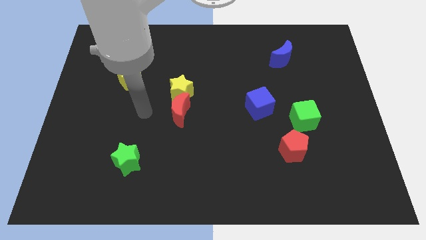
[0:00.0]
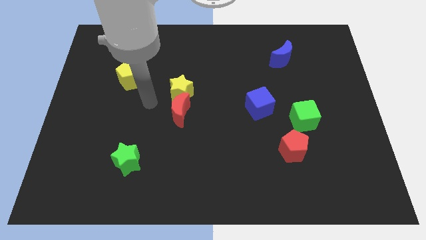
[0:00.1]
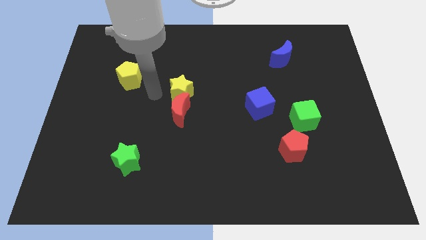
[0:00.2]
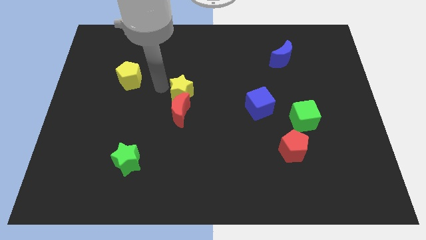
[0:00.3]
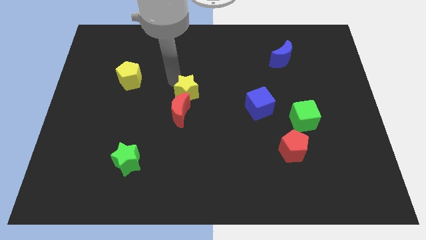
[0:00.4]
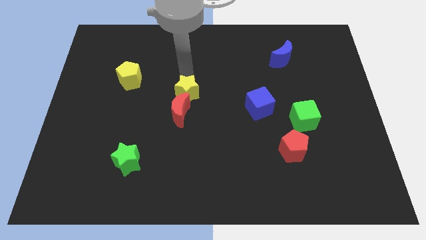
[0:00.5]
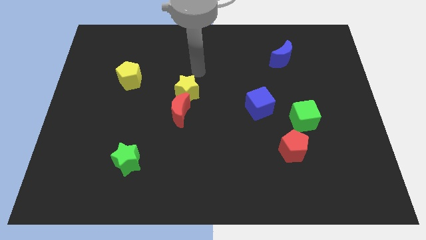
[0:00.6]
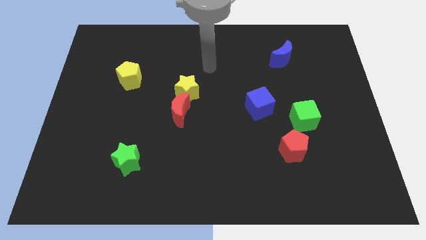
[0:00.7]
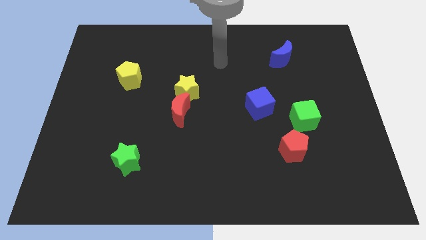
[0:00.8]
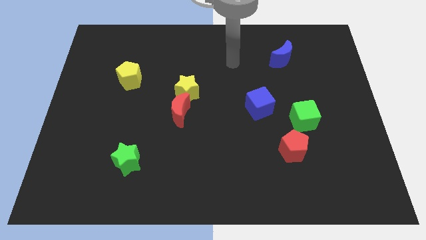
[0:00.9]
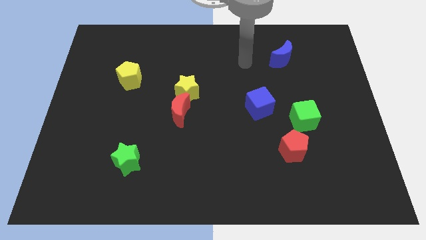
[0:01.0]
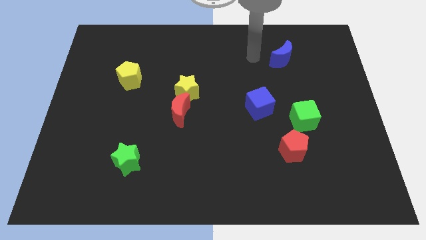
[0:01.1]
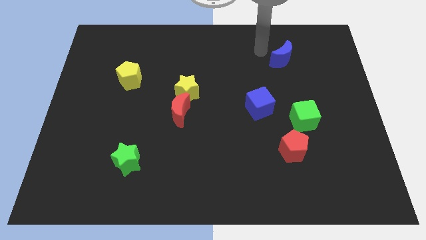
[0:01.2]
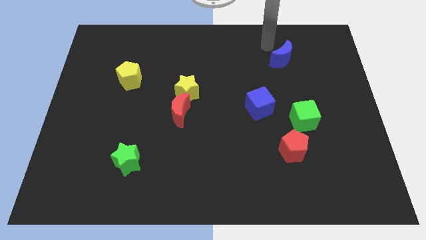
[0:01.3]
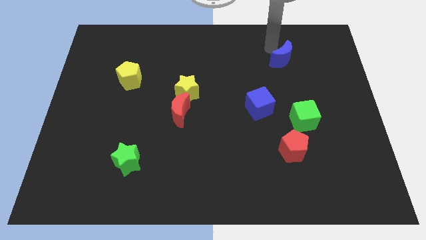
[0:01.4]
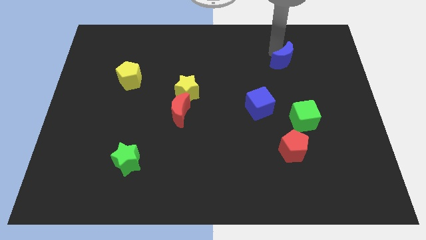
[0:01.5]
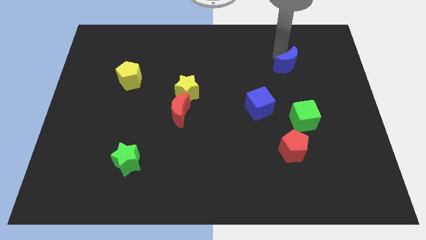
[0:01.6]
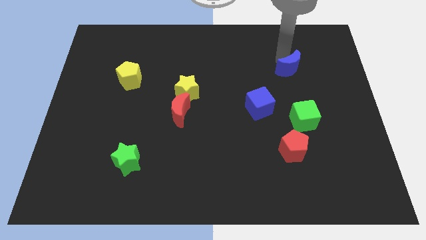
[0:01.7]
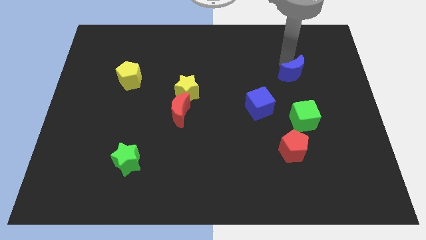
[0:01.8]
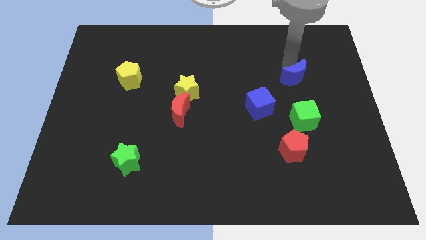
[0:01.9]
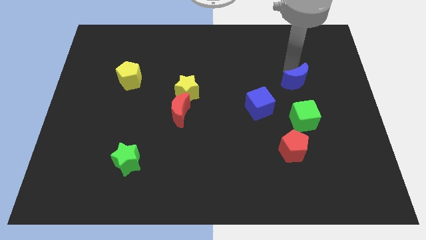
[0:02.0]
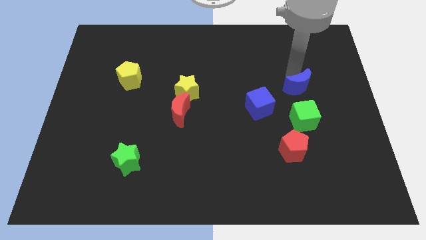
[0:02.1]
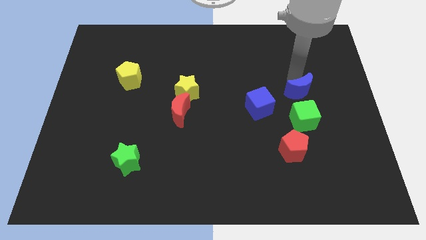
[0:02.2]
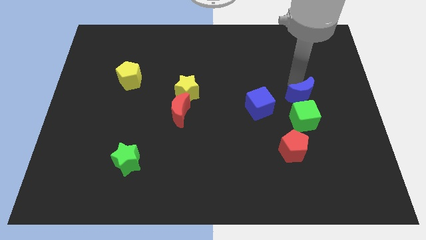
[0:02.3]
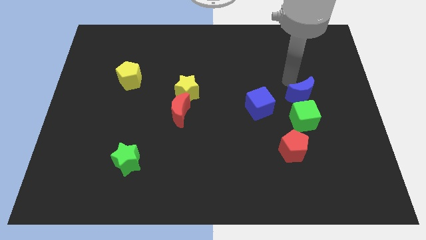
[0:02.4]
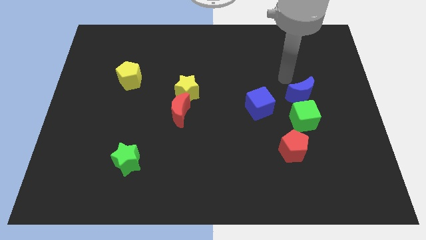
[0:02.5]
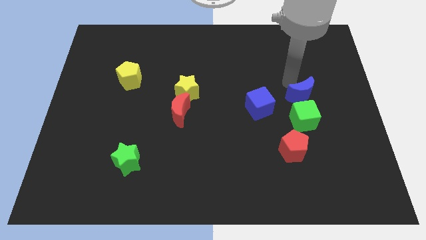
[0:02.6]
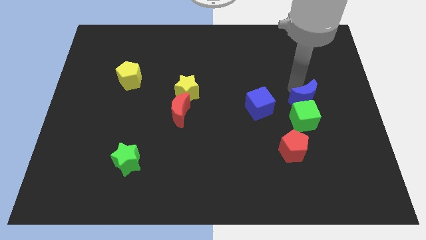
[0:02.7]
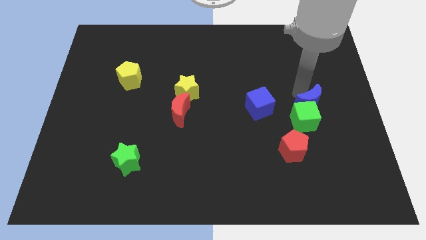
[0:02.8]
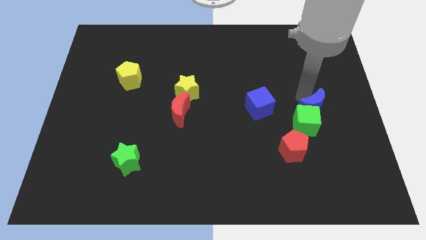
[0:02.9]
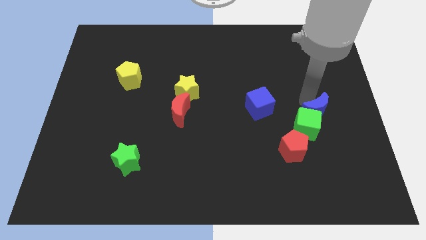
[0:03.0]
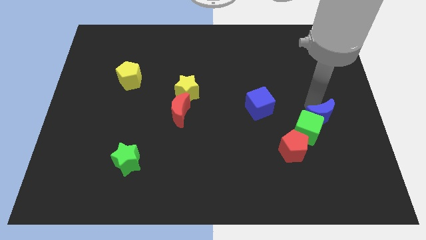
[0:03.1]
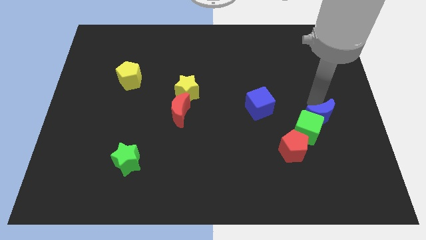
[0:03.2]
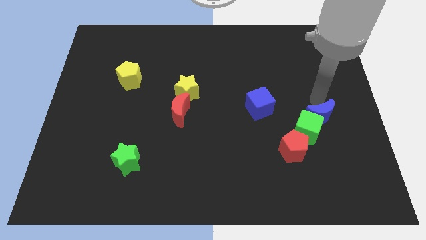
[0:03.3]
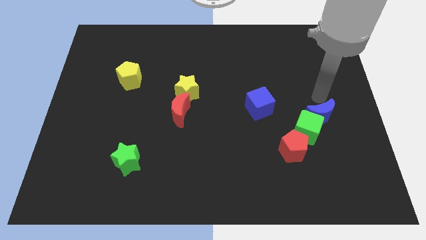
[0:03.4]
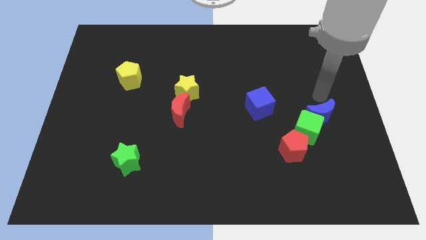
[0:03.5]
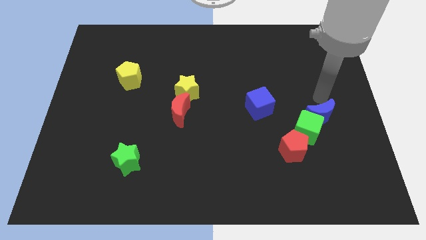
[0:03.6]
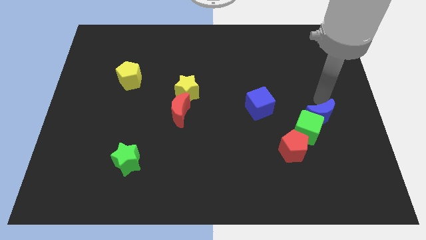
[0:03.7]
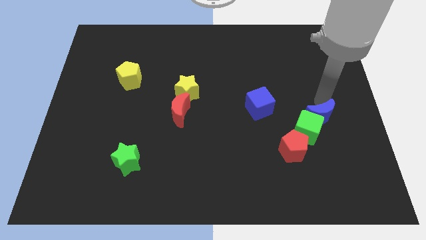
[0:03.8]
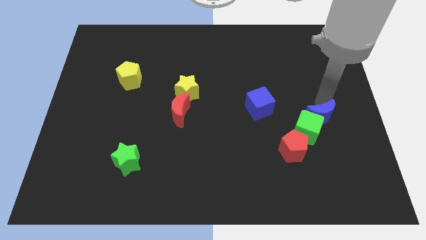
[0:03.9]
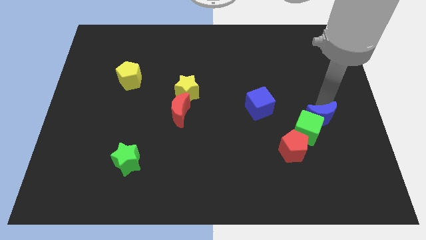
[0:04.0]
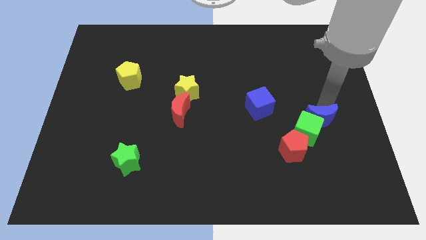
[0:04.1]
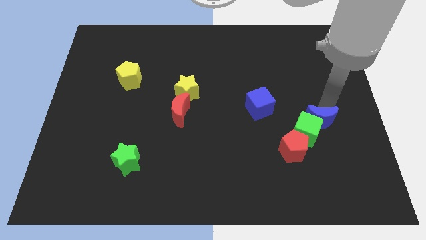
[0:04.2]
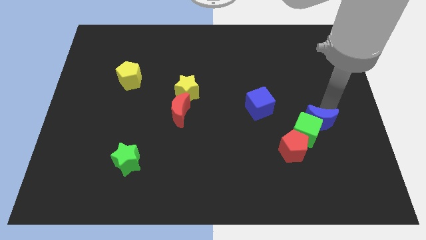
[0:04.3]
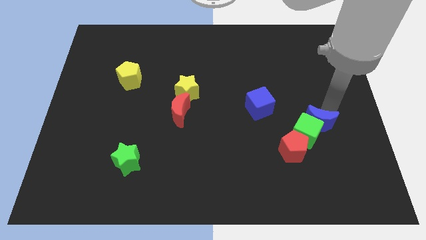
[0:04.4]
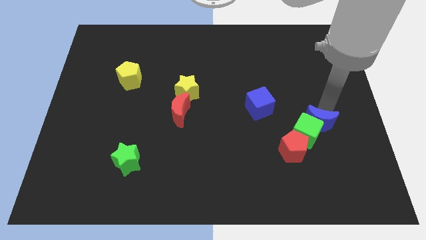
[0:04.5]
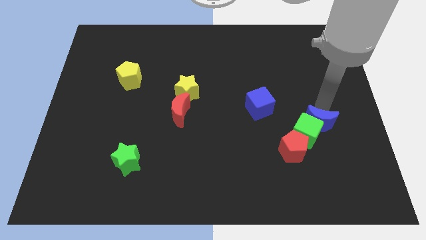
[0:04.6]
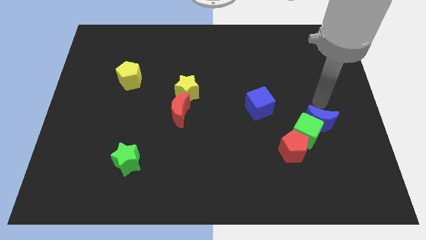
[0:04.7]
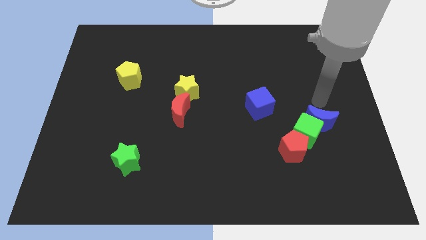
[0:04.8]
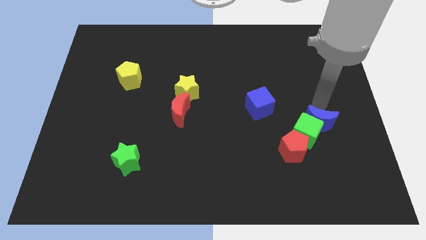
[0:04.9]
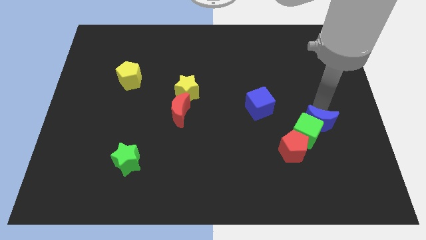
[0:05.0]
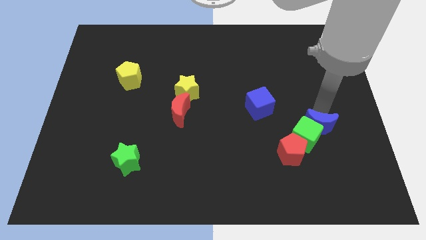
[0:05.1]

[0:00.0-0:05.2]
slide the blue moon downwards

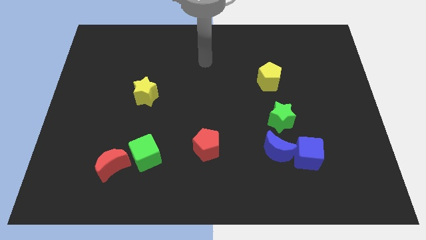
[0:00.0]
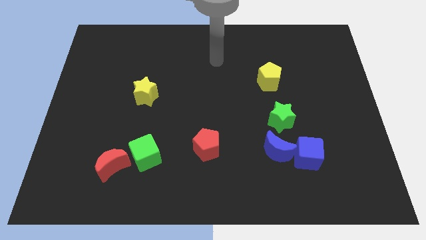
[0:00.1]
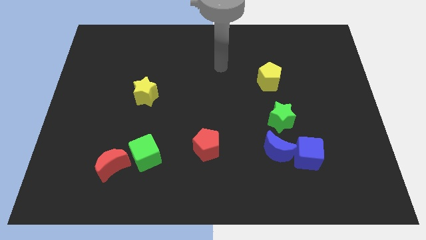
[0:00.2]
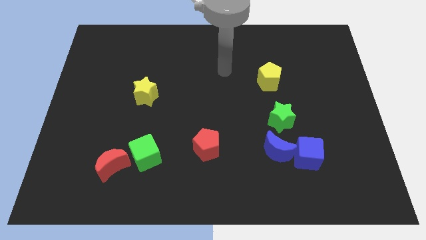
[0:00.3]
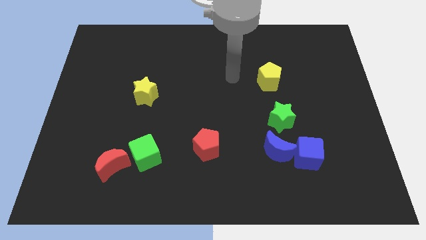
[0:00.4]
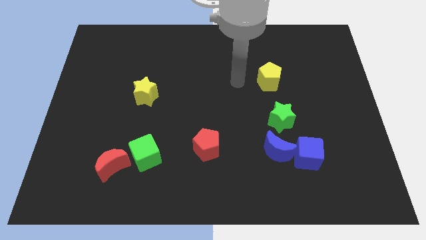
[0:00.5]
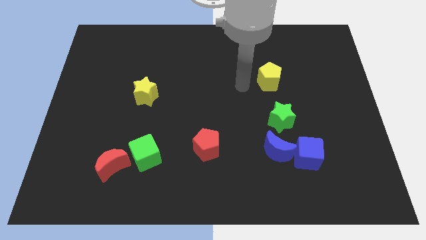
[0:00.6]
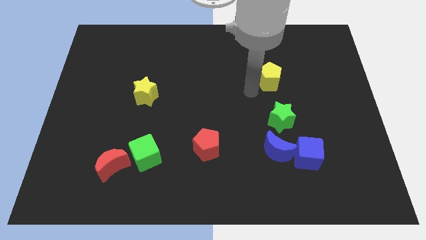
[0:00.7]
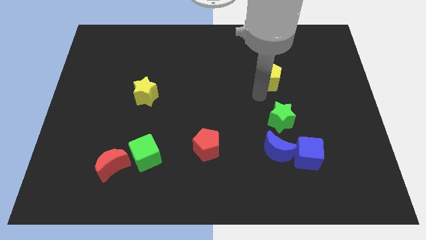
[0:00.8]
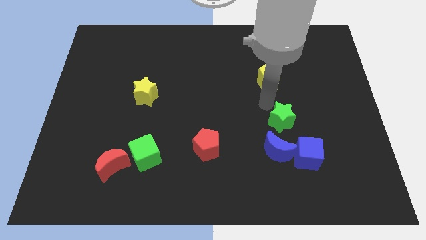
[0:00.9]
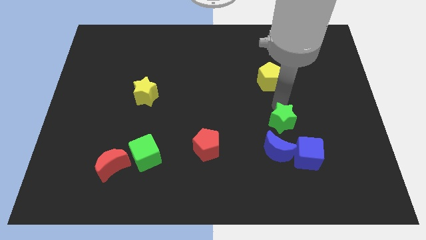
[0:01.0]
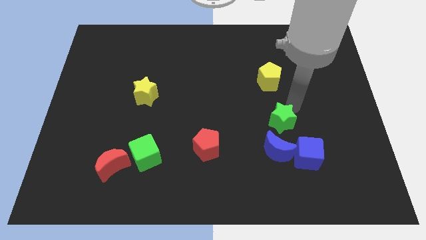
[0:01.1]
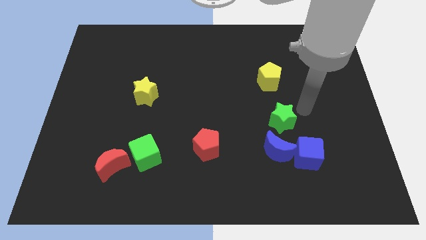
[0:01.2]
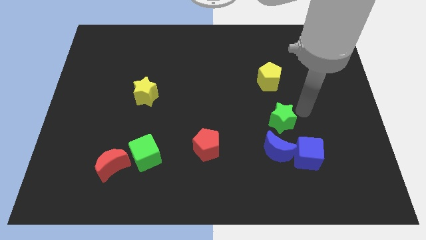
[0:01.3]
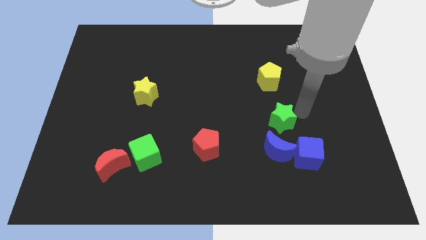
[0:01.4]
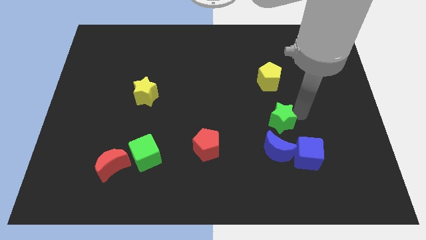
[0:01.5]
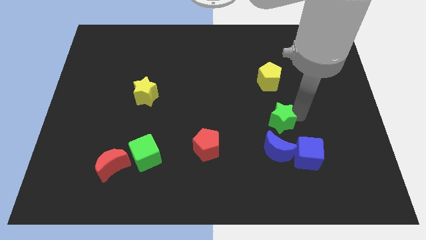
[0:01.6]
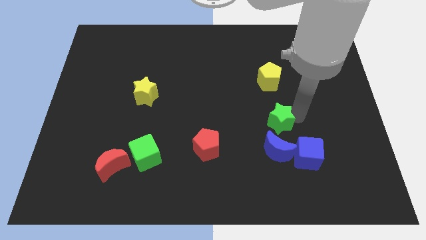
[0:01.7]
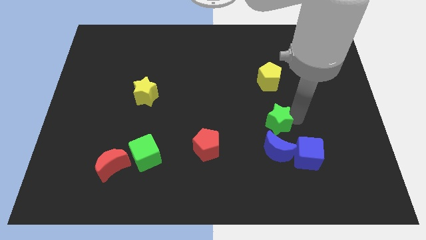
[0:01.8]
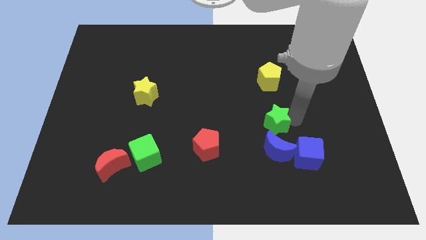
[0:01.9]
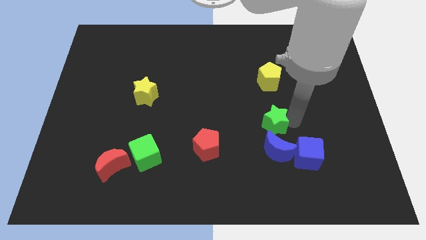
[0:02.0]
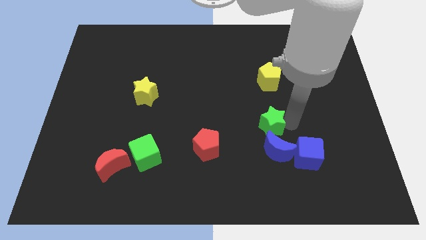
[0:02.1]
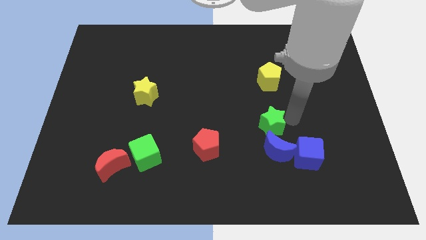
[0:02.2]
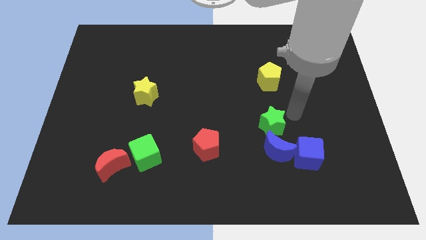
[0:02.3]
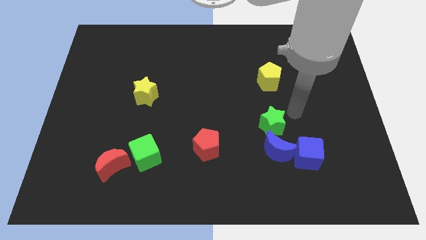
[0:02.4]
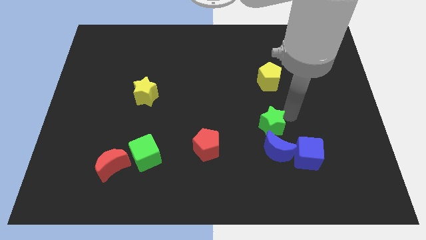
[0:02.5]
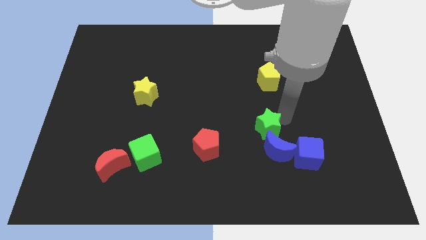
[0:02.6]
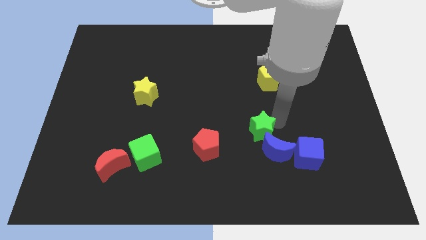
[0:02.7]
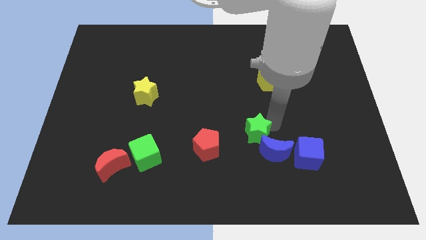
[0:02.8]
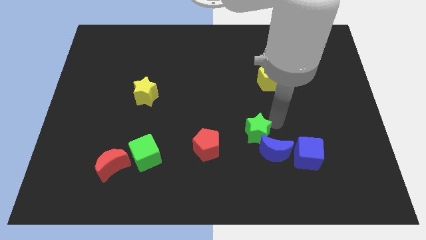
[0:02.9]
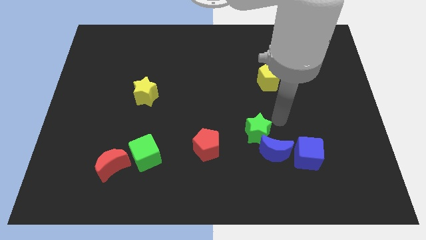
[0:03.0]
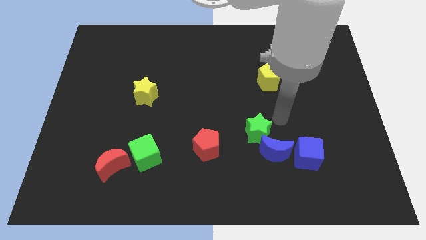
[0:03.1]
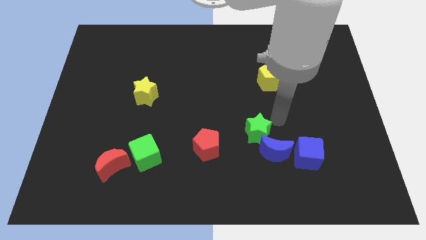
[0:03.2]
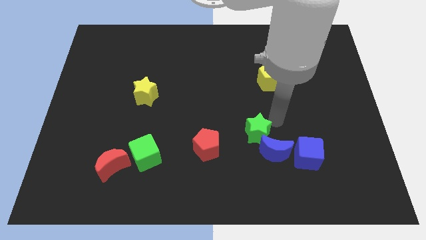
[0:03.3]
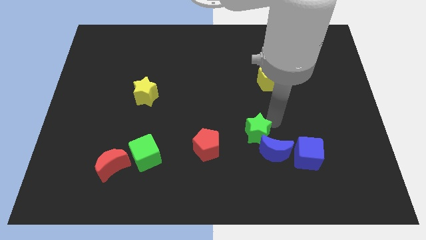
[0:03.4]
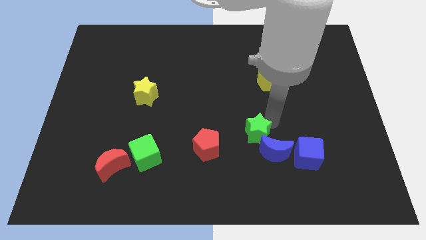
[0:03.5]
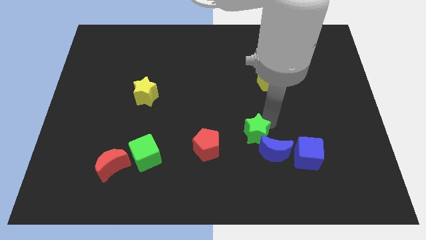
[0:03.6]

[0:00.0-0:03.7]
slide the green star a little diagonally downwards and to the left
